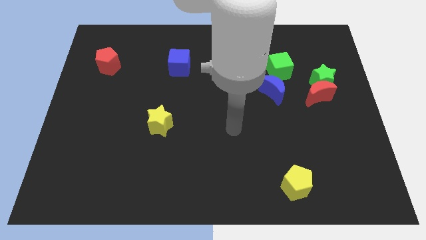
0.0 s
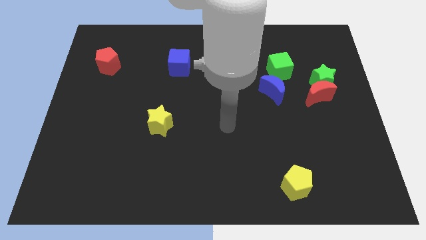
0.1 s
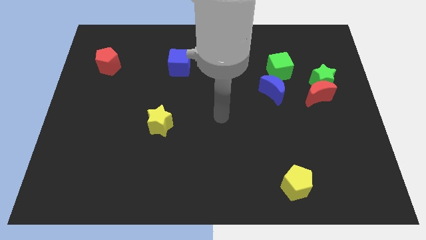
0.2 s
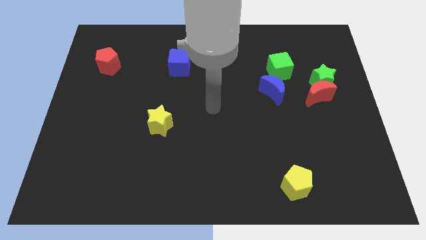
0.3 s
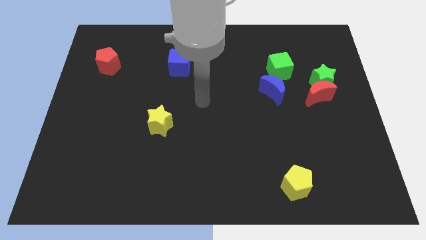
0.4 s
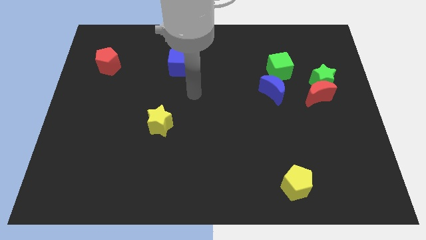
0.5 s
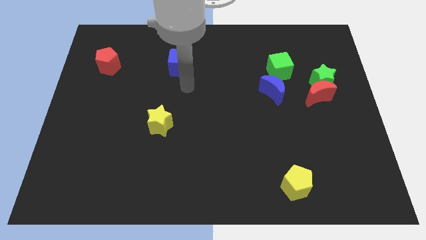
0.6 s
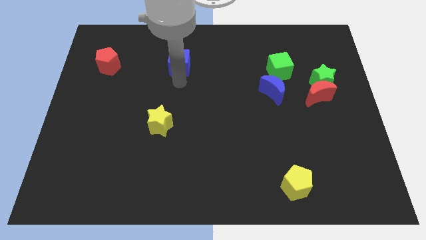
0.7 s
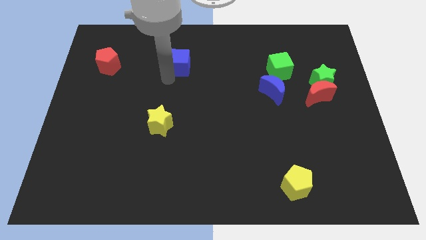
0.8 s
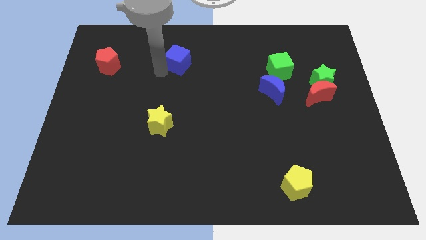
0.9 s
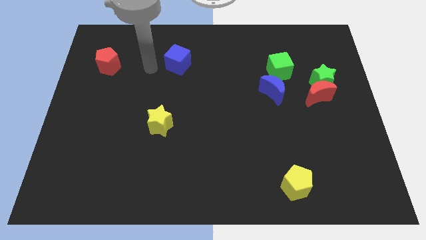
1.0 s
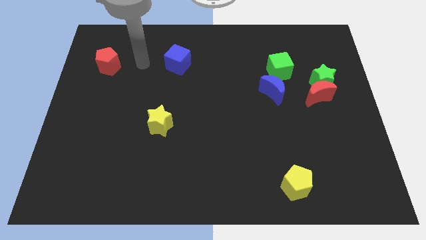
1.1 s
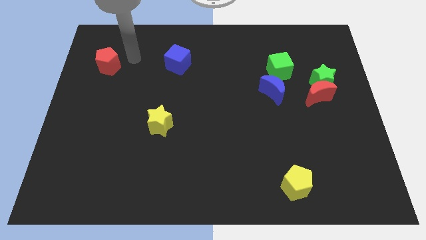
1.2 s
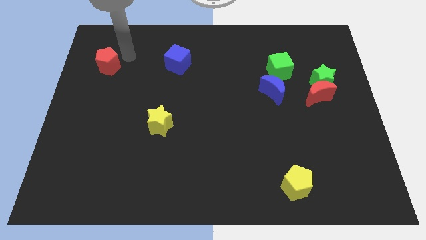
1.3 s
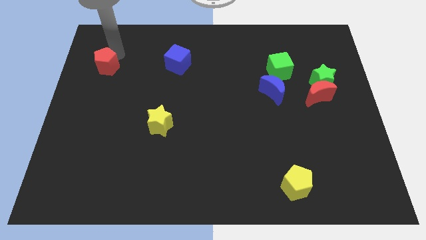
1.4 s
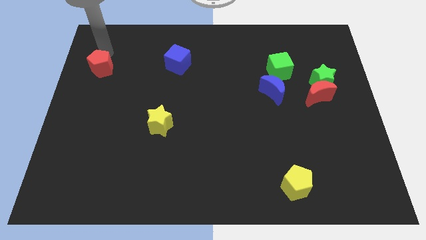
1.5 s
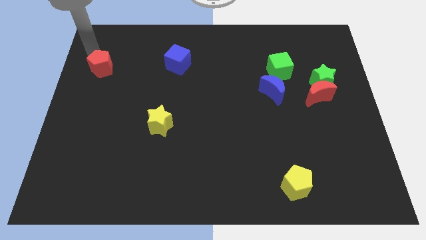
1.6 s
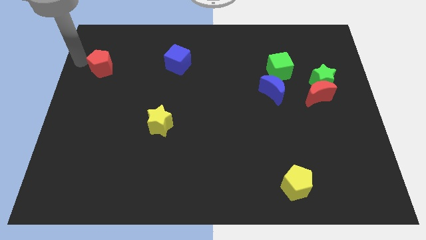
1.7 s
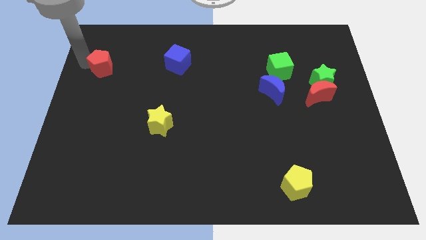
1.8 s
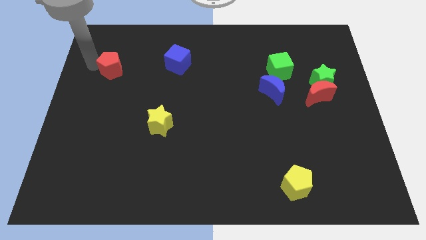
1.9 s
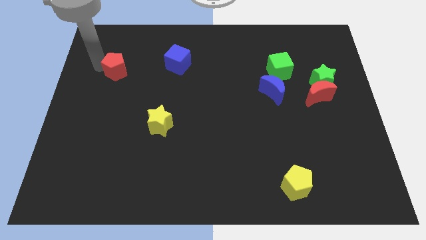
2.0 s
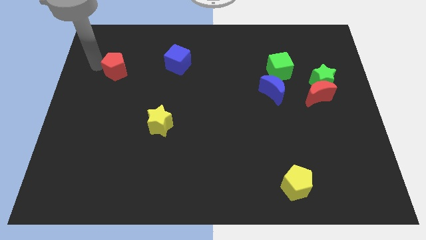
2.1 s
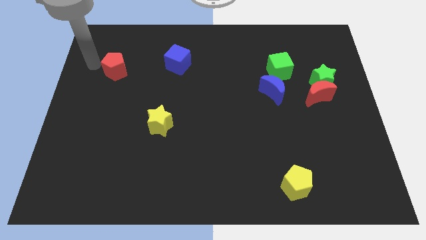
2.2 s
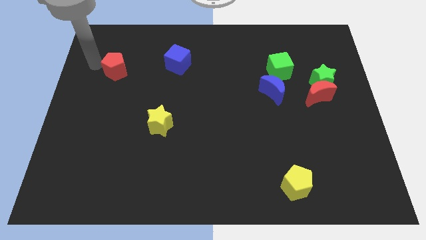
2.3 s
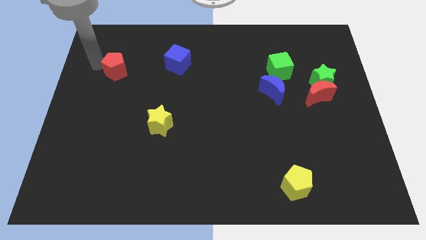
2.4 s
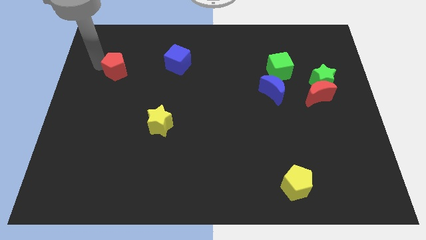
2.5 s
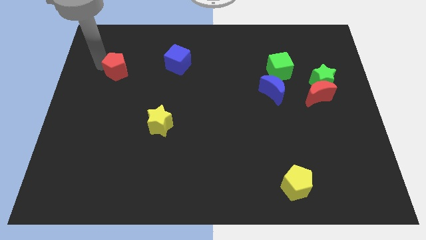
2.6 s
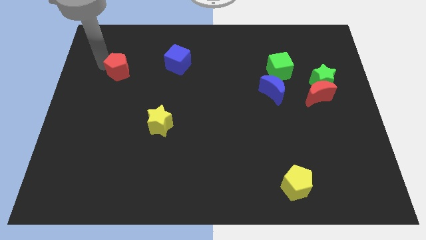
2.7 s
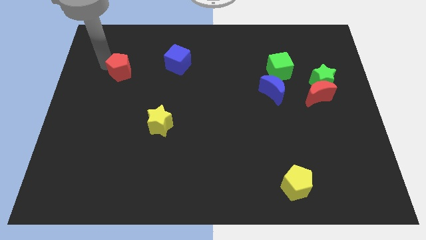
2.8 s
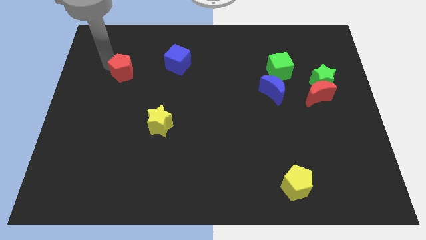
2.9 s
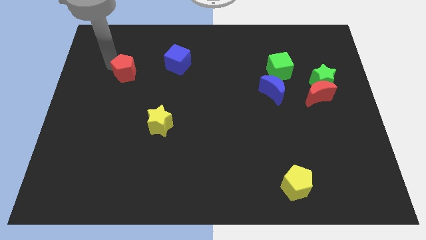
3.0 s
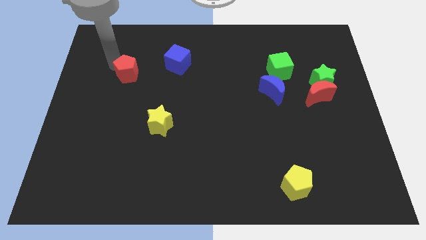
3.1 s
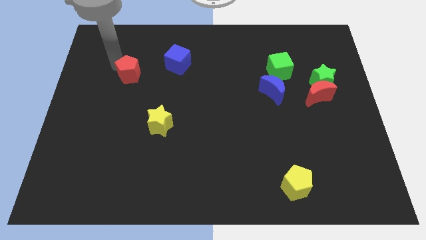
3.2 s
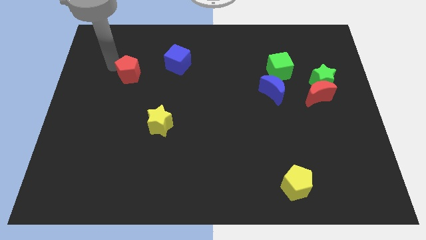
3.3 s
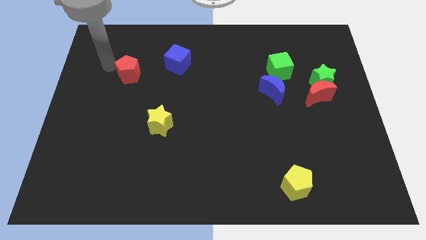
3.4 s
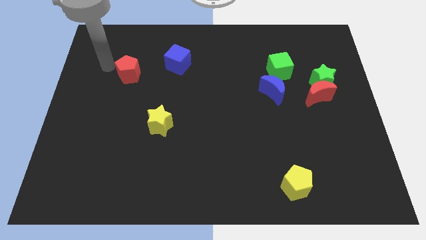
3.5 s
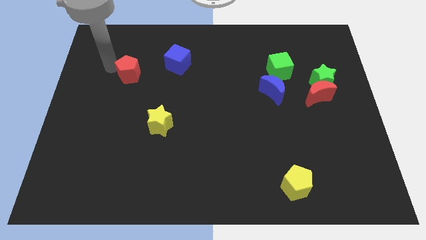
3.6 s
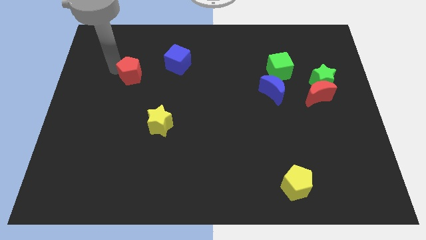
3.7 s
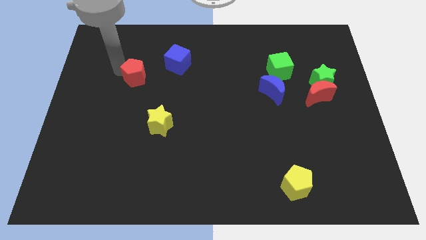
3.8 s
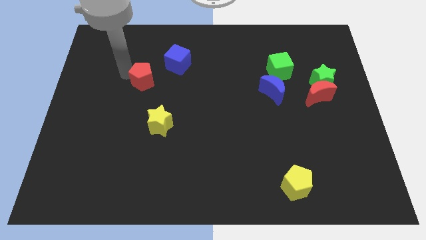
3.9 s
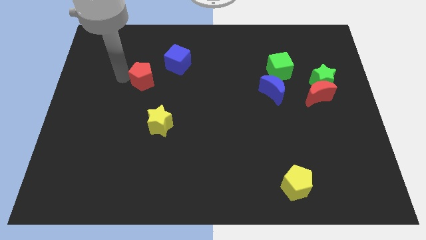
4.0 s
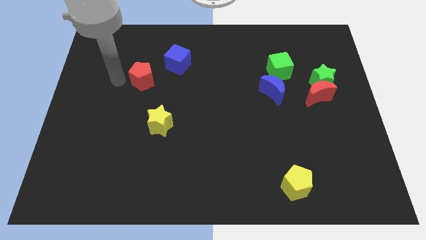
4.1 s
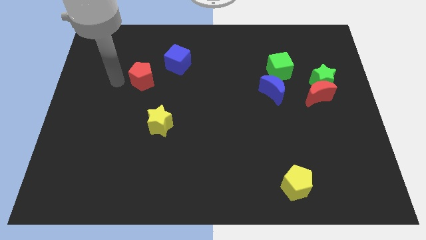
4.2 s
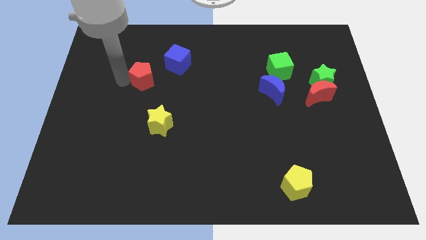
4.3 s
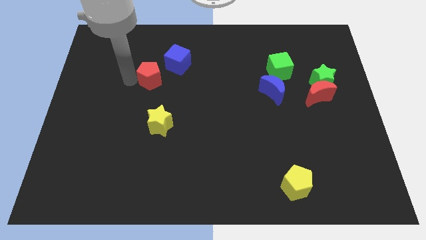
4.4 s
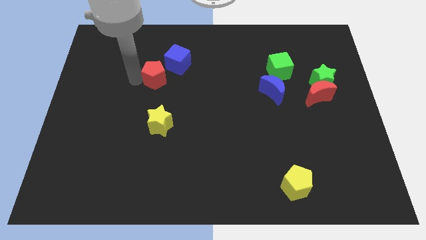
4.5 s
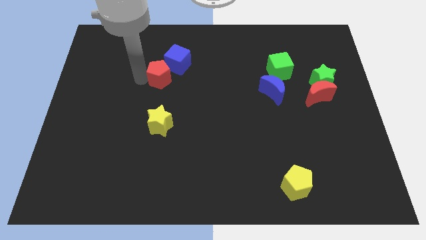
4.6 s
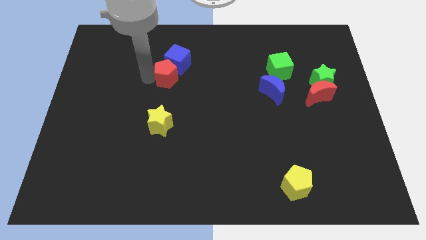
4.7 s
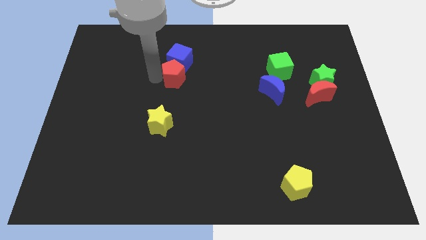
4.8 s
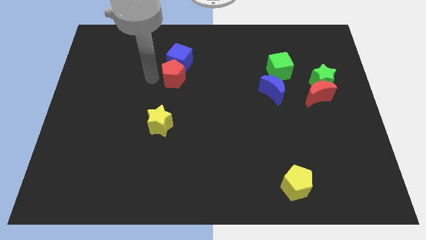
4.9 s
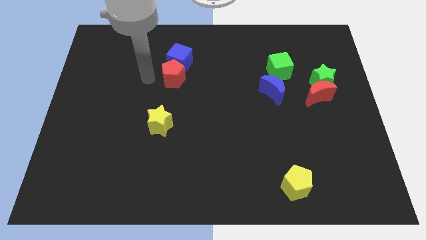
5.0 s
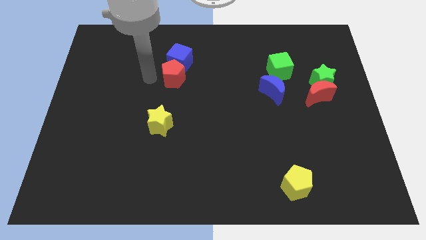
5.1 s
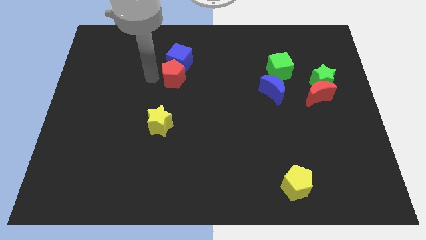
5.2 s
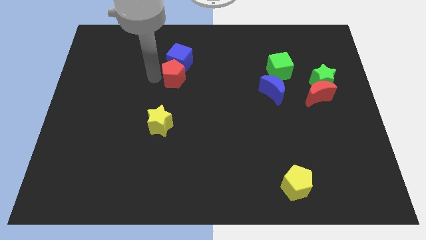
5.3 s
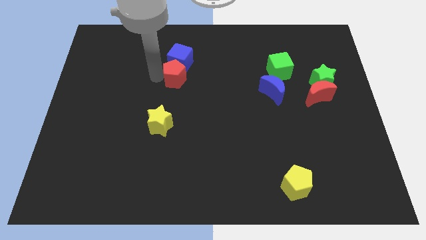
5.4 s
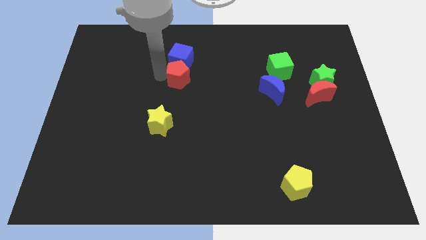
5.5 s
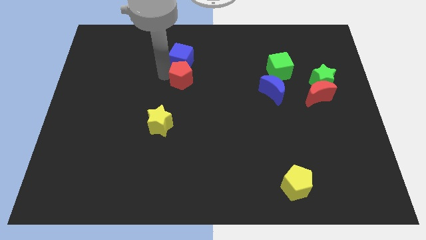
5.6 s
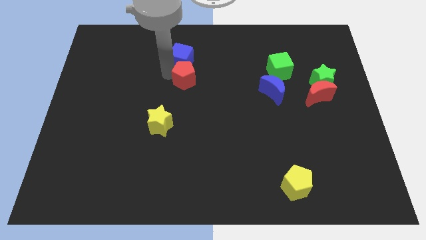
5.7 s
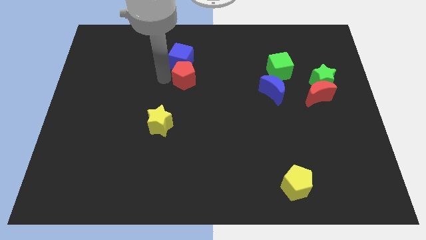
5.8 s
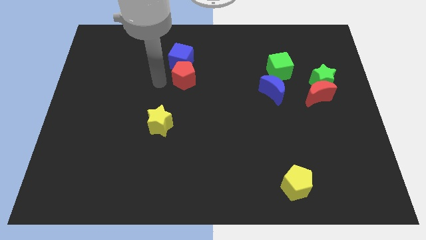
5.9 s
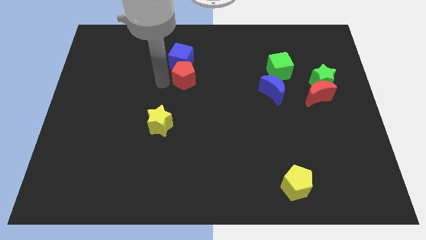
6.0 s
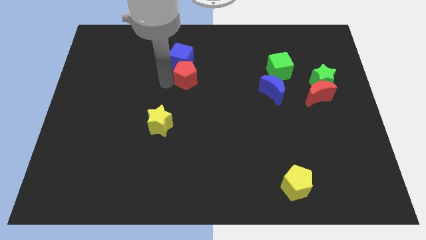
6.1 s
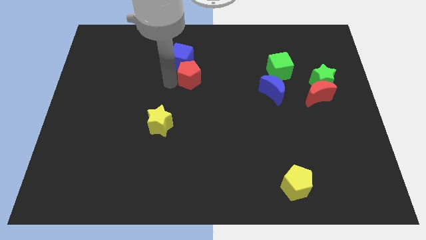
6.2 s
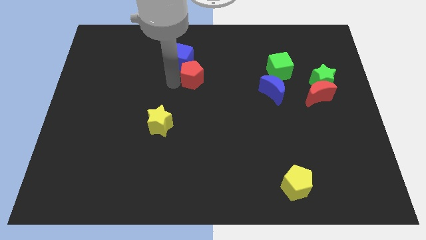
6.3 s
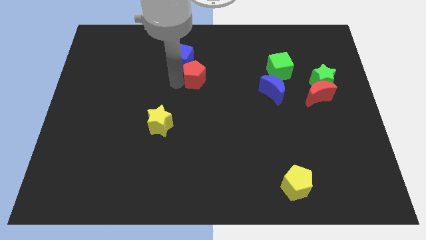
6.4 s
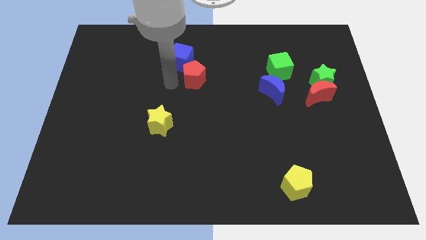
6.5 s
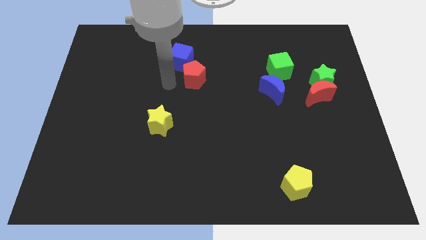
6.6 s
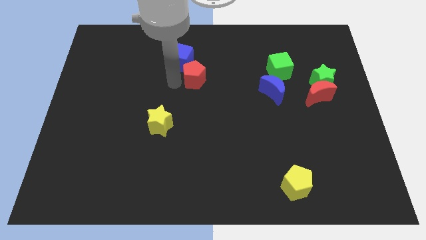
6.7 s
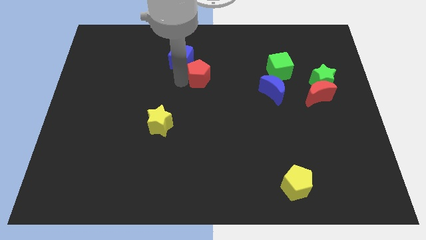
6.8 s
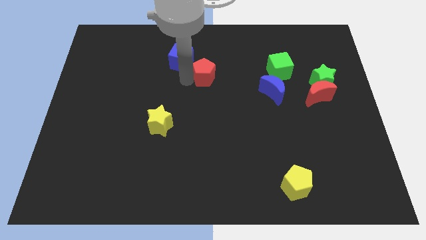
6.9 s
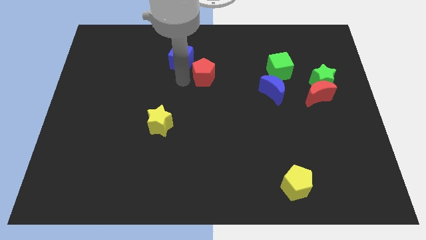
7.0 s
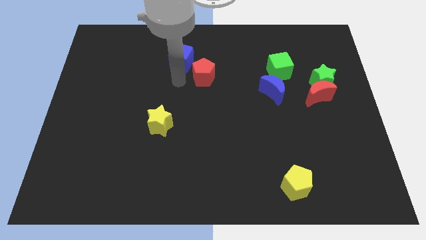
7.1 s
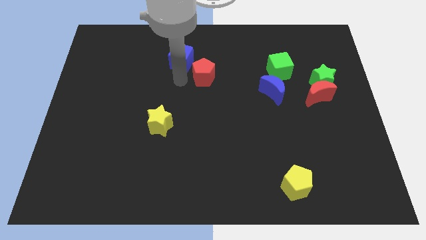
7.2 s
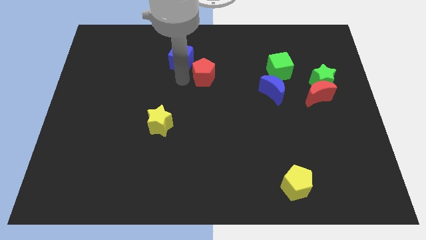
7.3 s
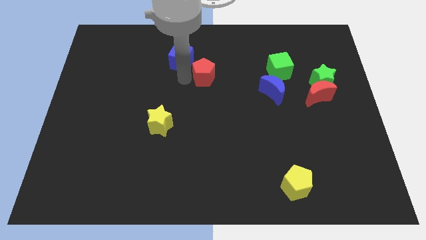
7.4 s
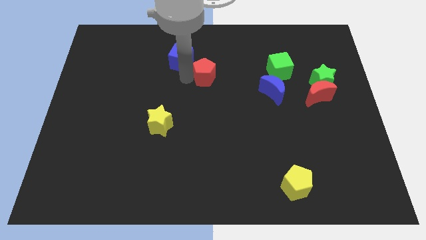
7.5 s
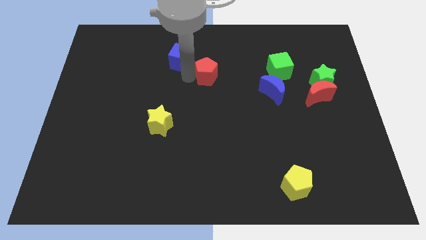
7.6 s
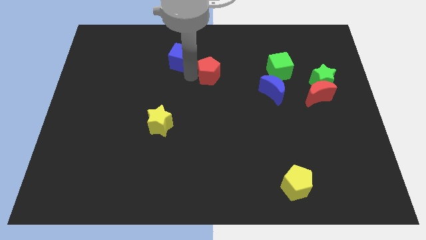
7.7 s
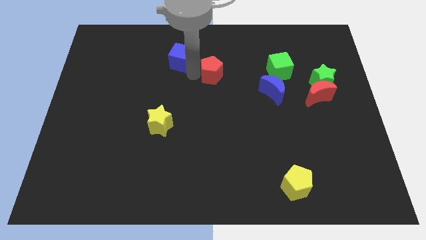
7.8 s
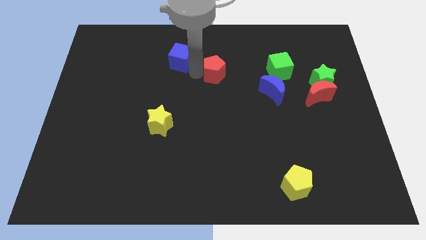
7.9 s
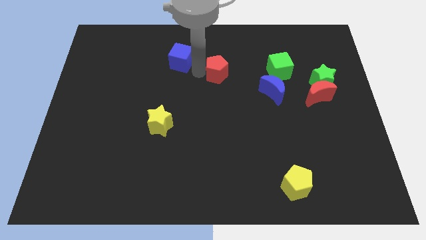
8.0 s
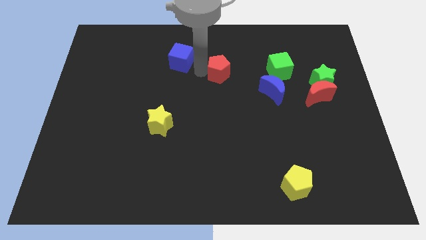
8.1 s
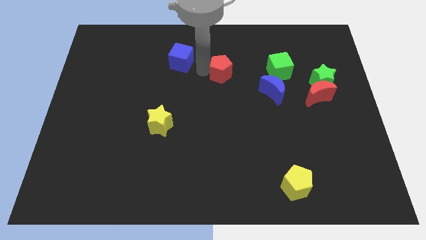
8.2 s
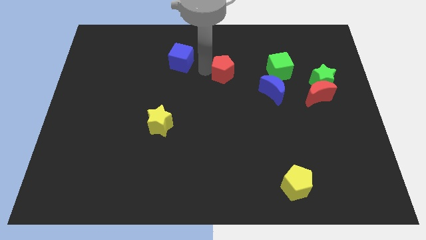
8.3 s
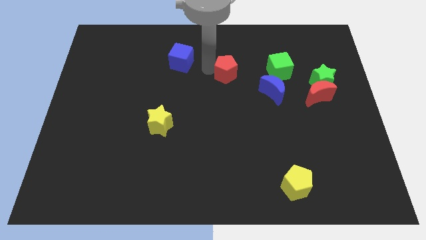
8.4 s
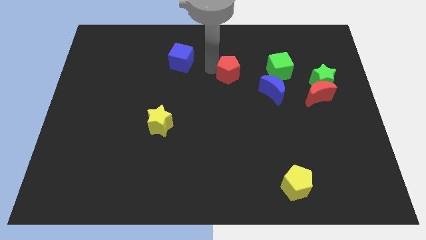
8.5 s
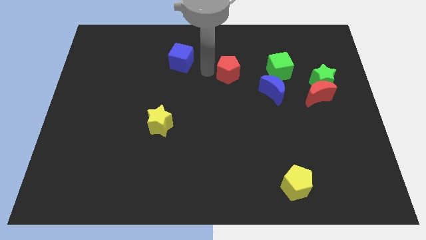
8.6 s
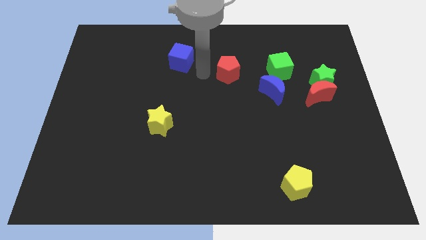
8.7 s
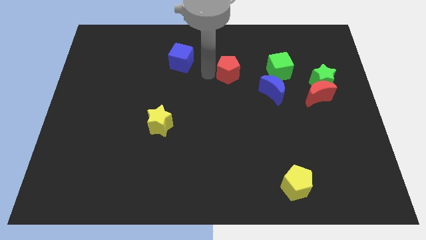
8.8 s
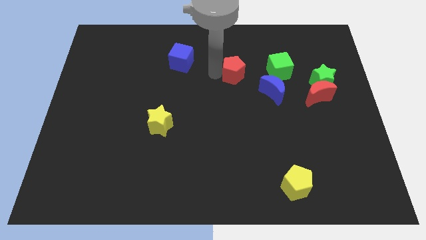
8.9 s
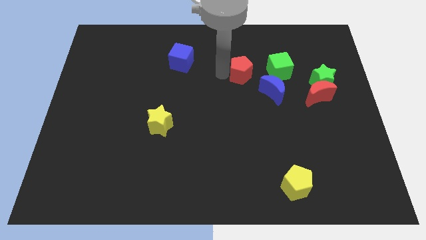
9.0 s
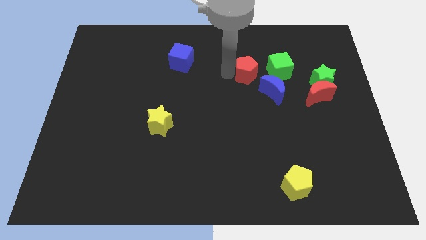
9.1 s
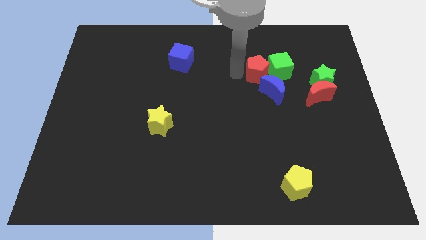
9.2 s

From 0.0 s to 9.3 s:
put the red pentagon next to the green cube
